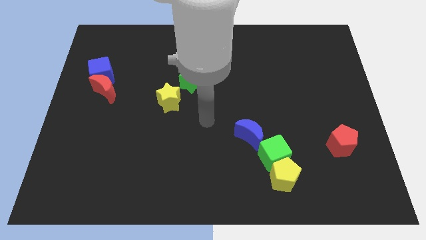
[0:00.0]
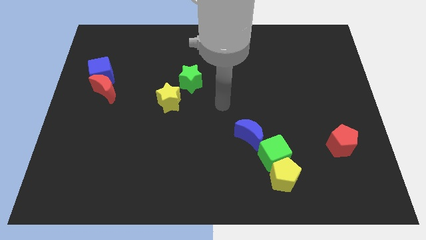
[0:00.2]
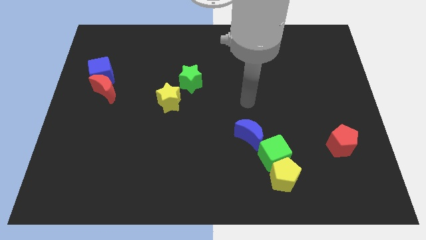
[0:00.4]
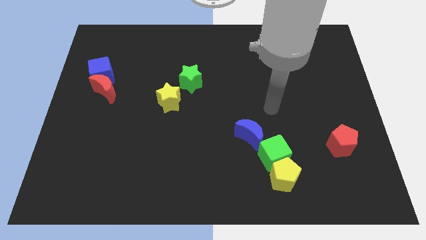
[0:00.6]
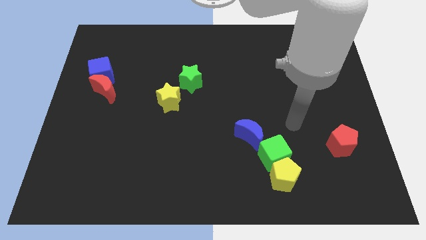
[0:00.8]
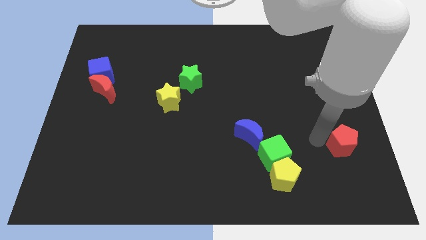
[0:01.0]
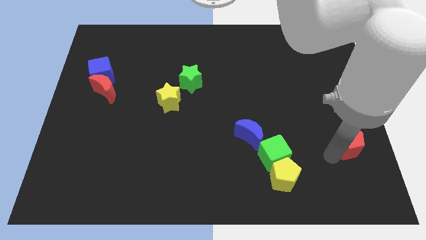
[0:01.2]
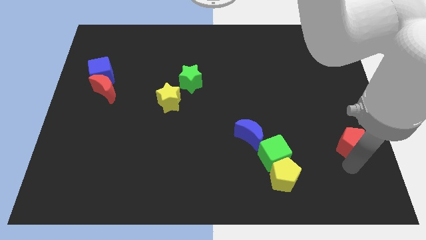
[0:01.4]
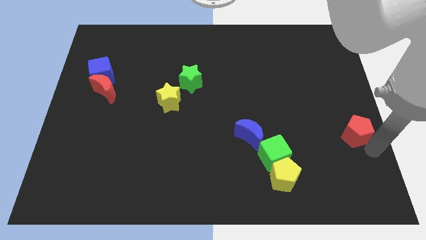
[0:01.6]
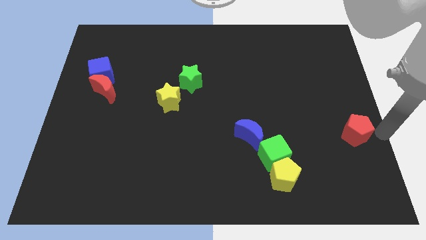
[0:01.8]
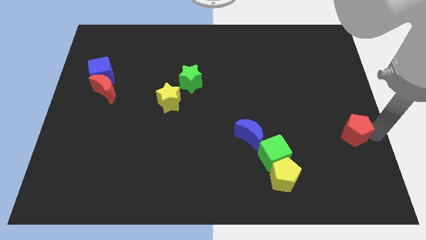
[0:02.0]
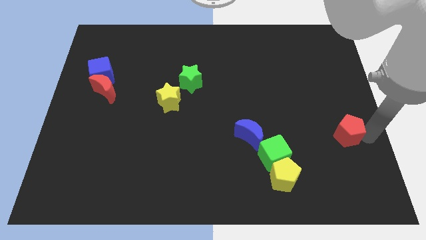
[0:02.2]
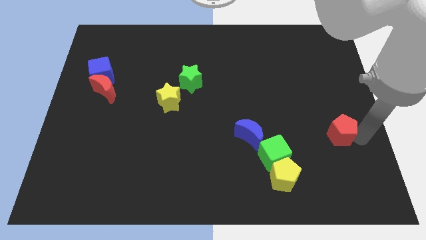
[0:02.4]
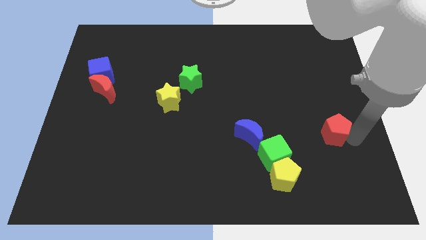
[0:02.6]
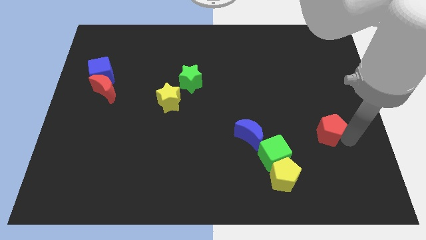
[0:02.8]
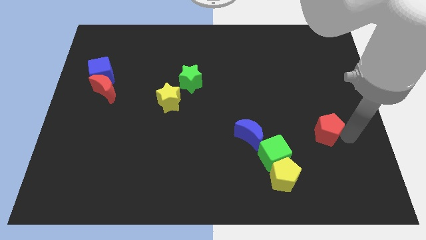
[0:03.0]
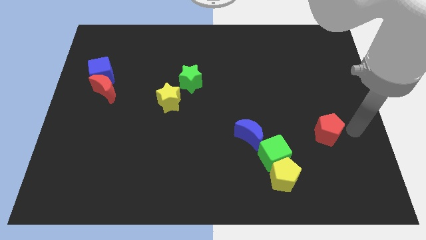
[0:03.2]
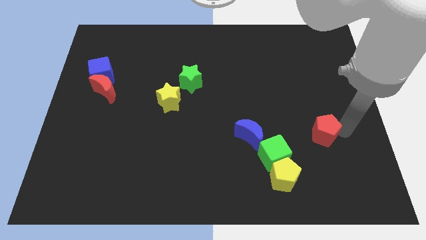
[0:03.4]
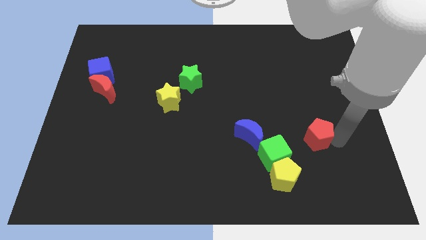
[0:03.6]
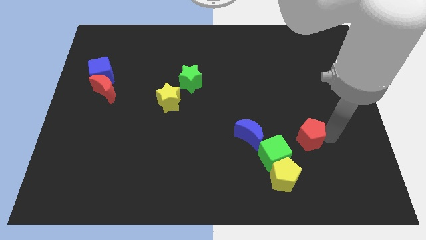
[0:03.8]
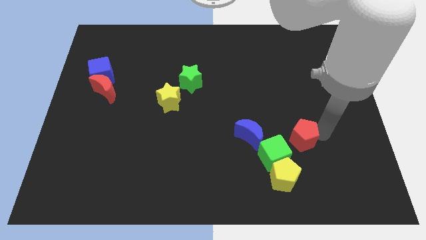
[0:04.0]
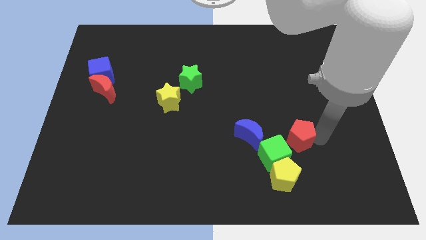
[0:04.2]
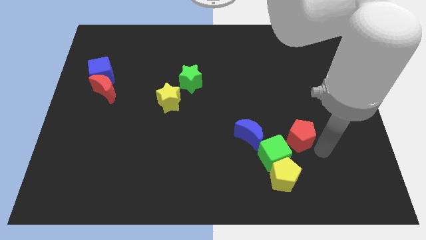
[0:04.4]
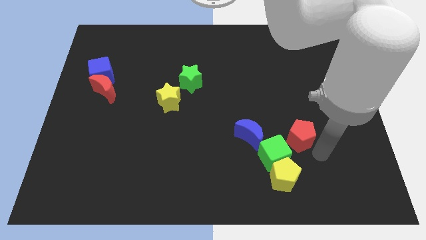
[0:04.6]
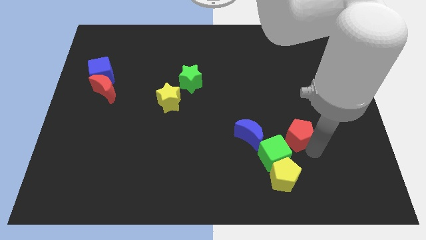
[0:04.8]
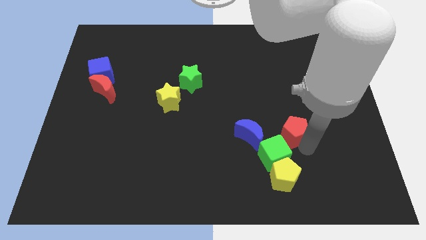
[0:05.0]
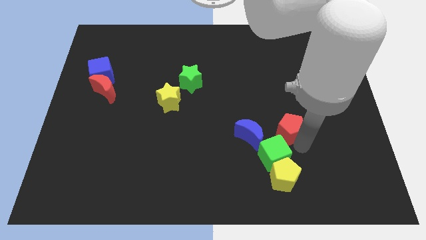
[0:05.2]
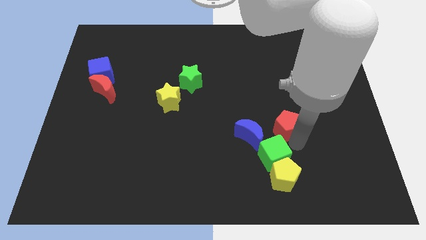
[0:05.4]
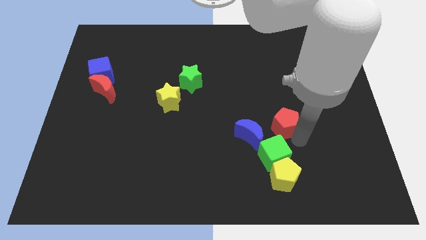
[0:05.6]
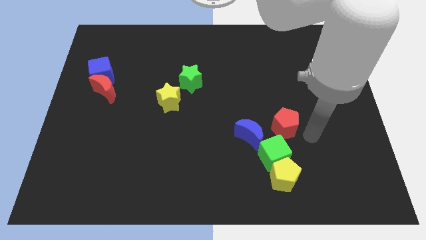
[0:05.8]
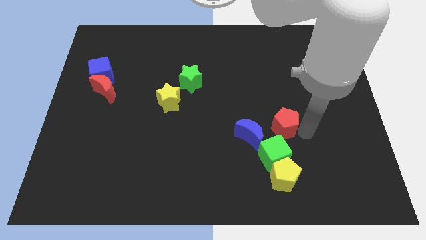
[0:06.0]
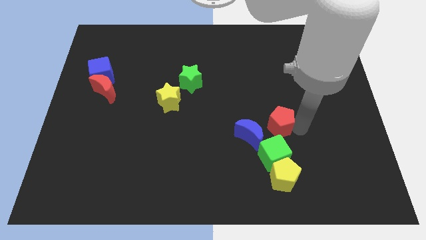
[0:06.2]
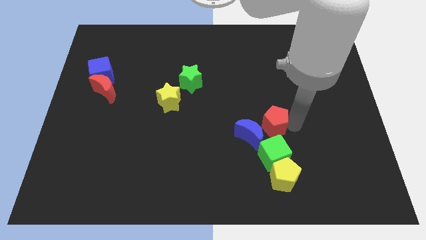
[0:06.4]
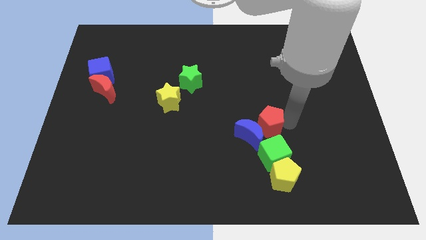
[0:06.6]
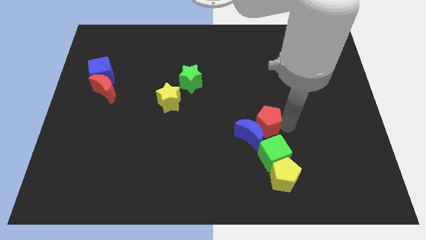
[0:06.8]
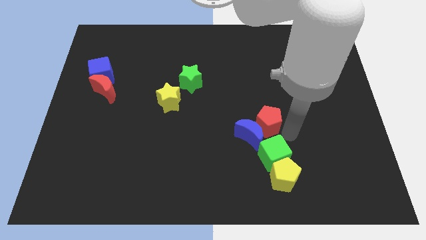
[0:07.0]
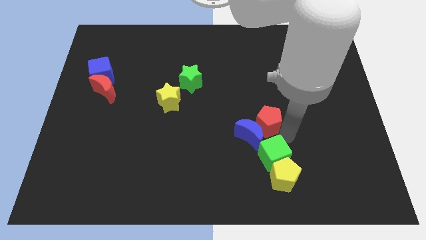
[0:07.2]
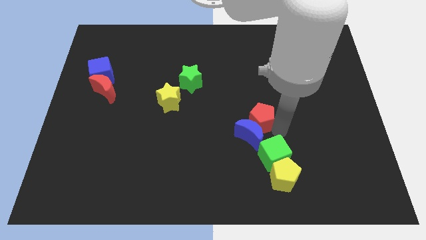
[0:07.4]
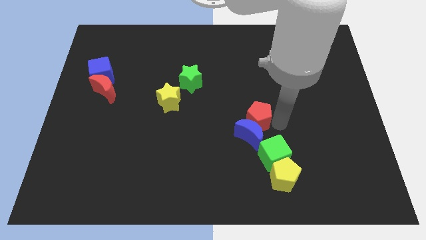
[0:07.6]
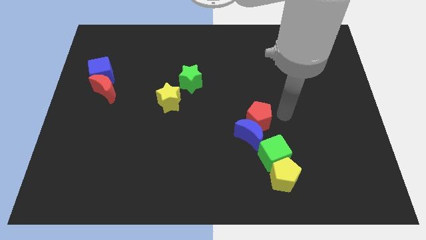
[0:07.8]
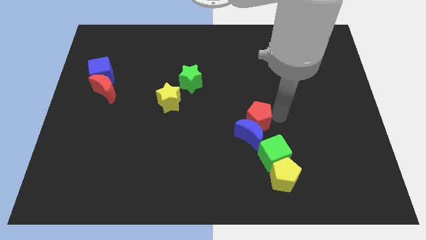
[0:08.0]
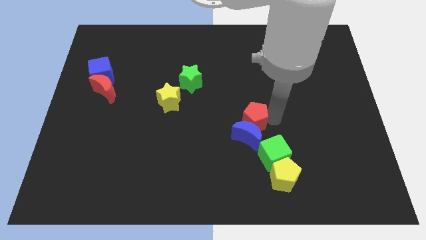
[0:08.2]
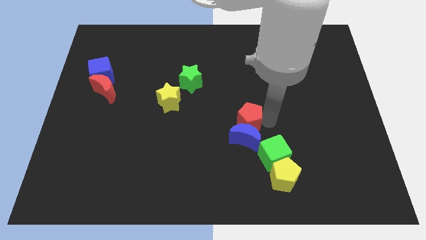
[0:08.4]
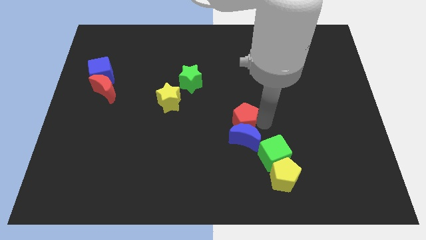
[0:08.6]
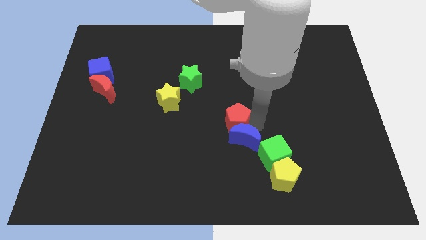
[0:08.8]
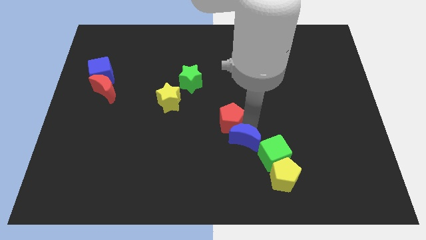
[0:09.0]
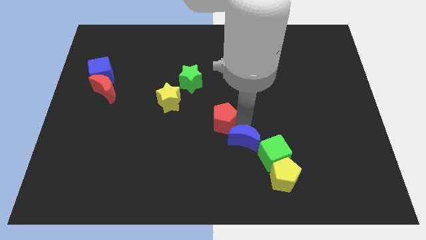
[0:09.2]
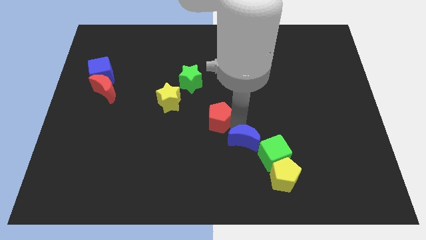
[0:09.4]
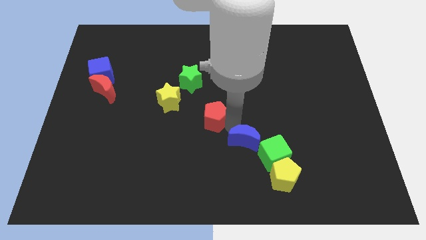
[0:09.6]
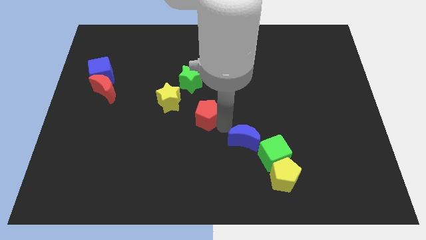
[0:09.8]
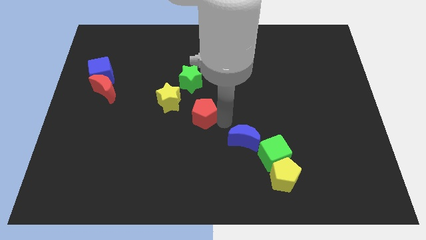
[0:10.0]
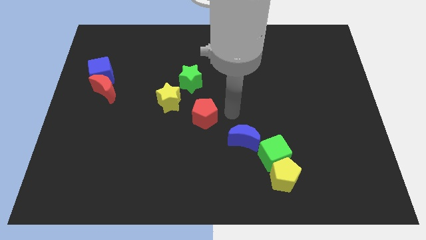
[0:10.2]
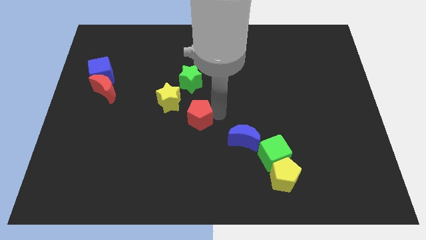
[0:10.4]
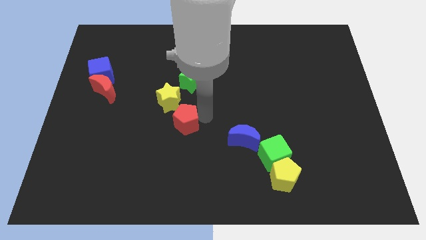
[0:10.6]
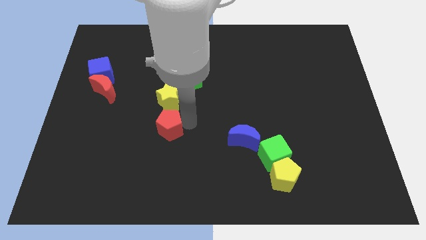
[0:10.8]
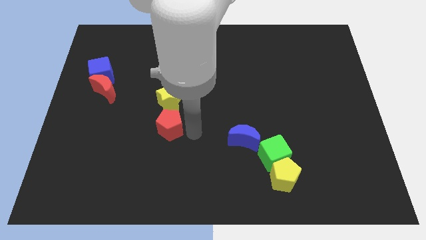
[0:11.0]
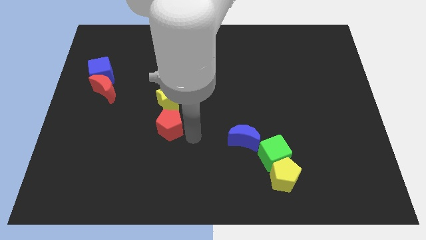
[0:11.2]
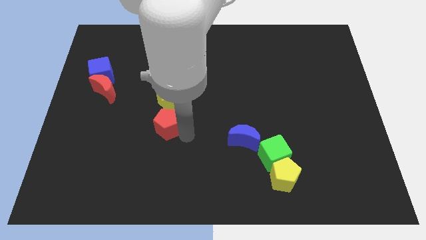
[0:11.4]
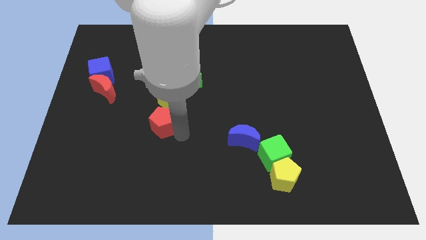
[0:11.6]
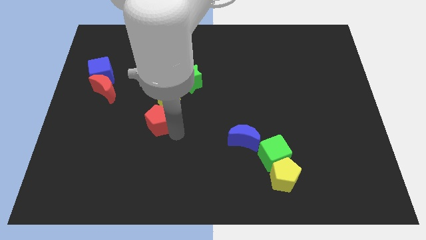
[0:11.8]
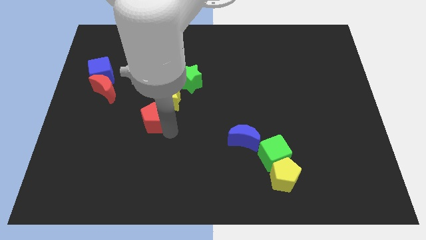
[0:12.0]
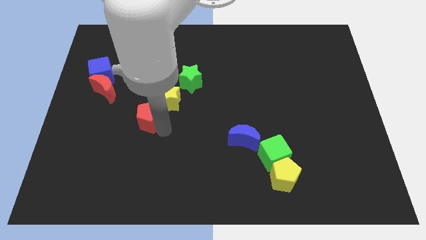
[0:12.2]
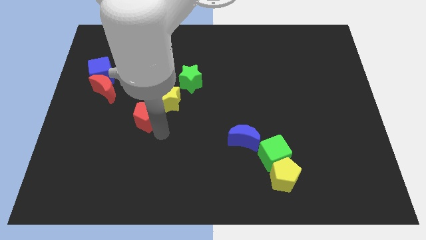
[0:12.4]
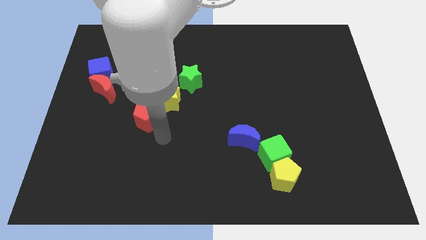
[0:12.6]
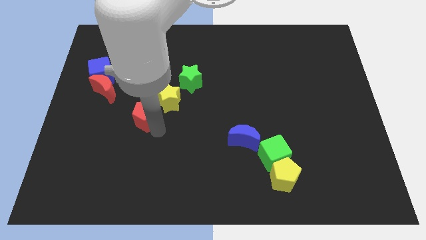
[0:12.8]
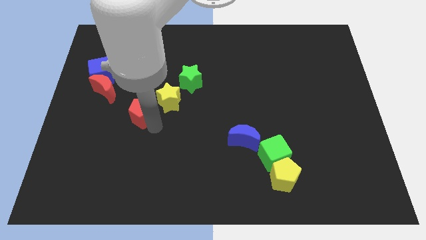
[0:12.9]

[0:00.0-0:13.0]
slide the red pentagon just left of the yellow star

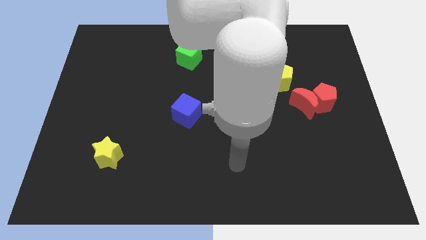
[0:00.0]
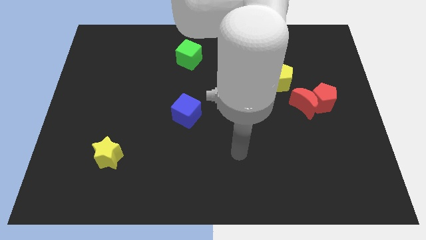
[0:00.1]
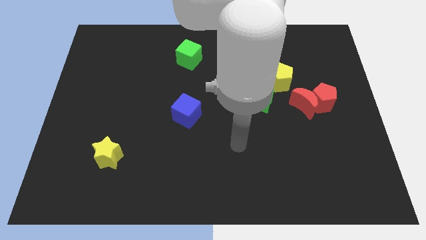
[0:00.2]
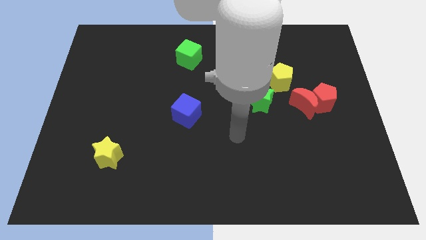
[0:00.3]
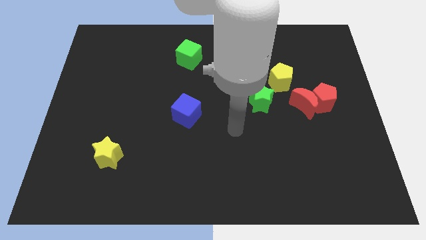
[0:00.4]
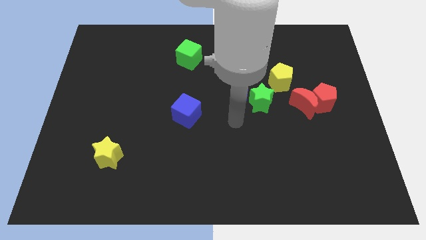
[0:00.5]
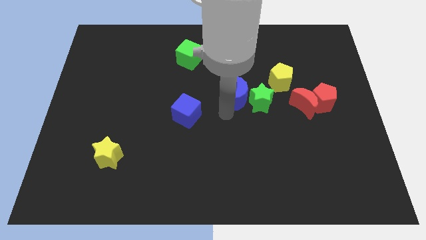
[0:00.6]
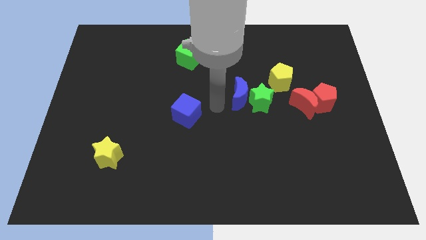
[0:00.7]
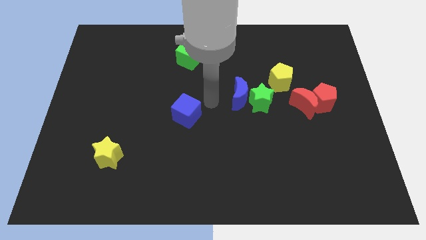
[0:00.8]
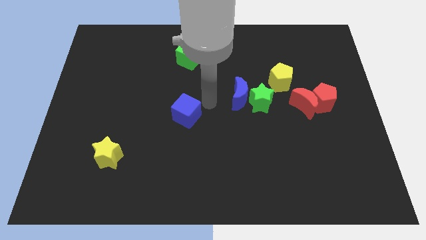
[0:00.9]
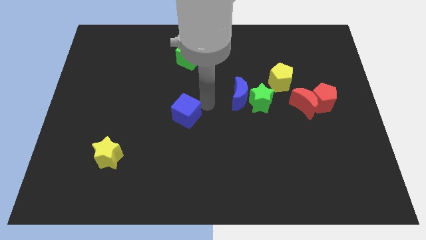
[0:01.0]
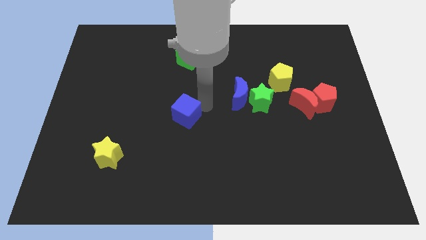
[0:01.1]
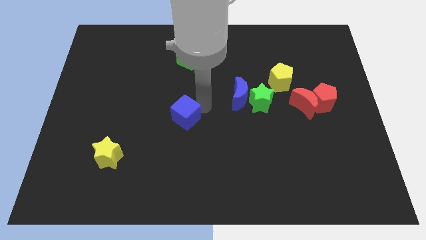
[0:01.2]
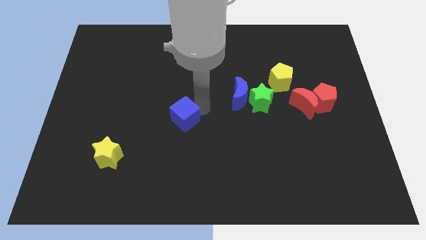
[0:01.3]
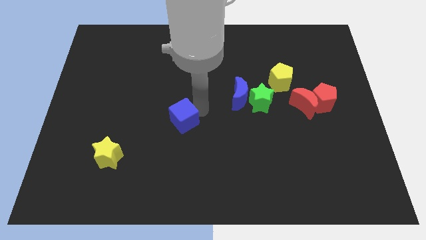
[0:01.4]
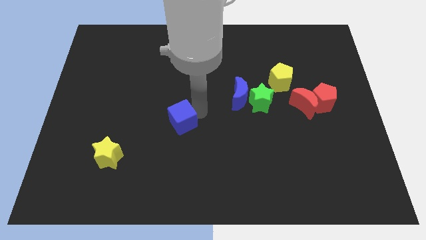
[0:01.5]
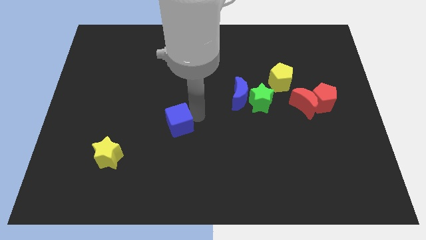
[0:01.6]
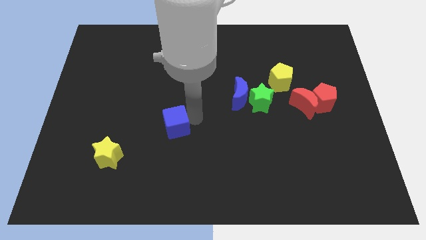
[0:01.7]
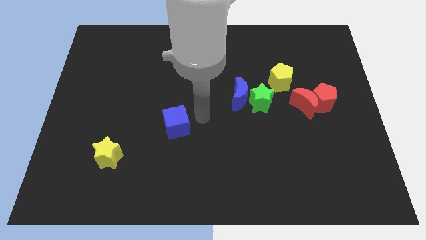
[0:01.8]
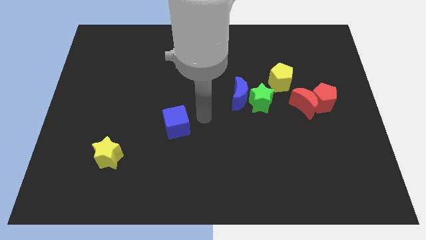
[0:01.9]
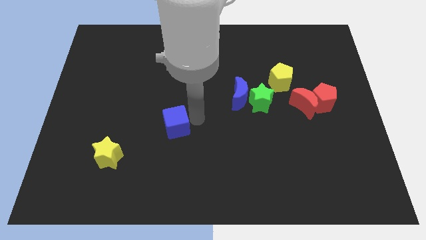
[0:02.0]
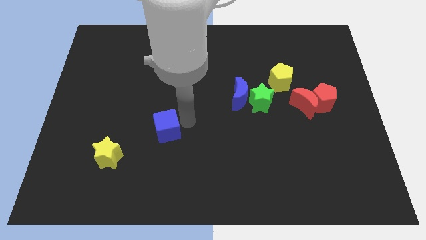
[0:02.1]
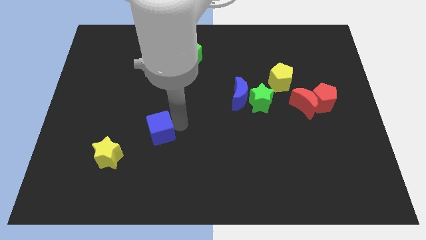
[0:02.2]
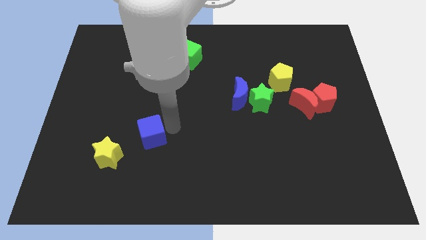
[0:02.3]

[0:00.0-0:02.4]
put the blue cube to the top right side of the yellow star
